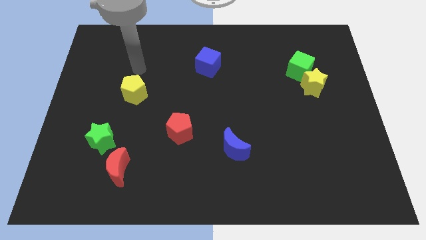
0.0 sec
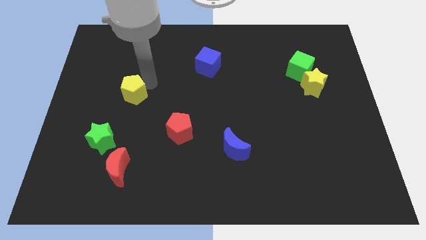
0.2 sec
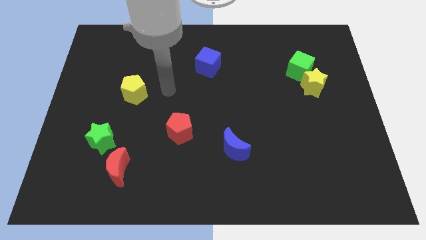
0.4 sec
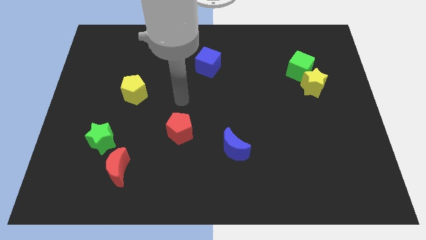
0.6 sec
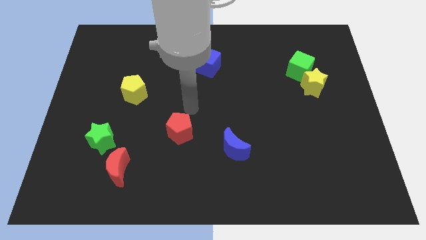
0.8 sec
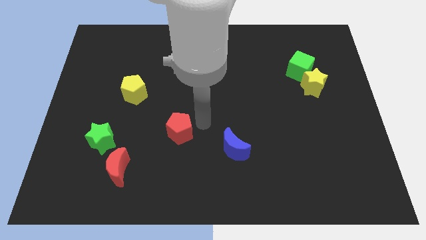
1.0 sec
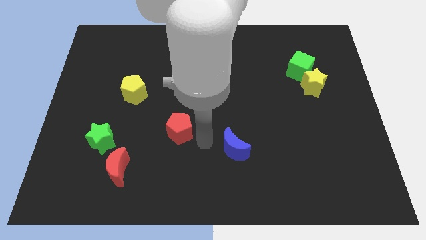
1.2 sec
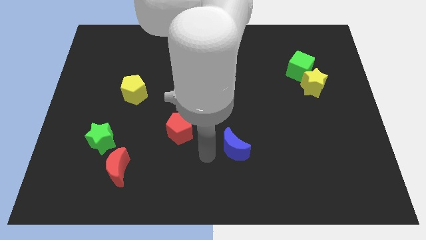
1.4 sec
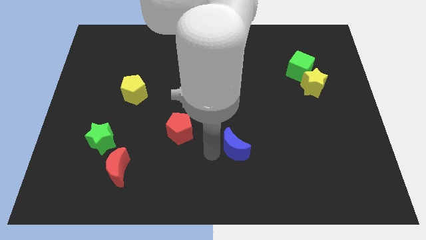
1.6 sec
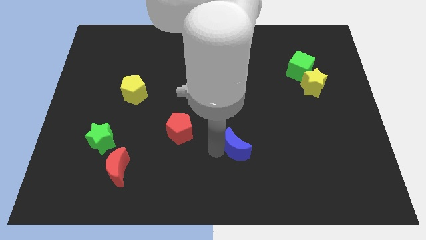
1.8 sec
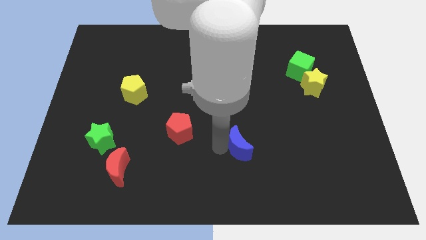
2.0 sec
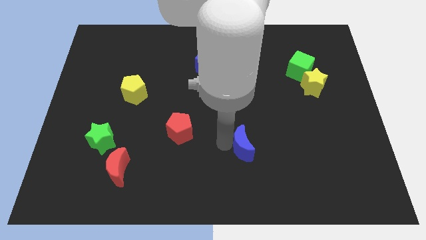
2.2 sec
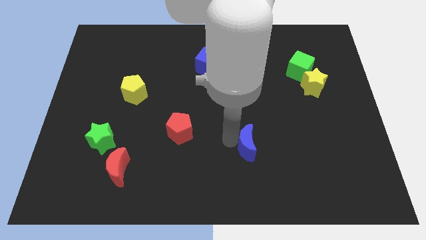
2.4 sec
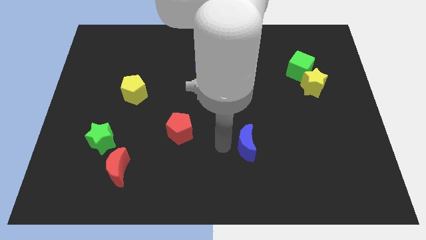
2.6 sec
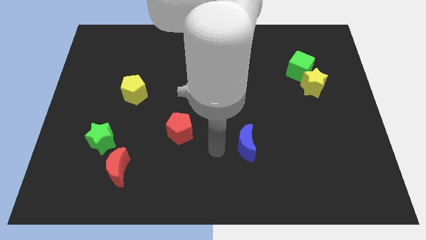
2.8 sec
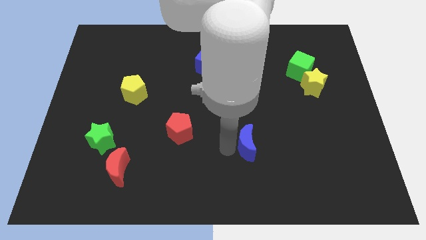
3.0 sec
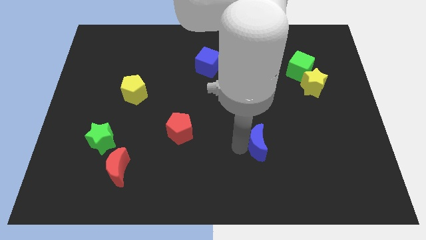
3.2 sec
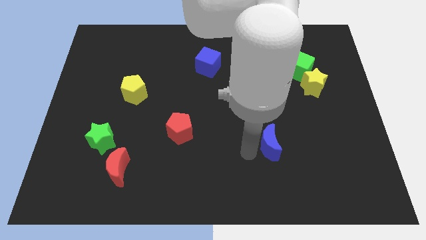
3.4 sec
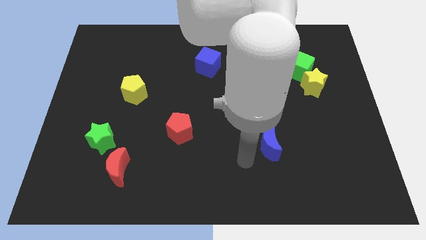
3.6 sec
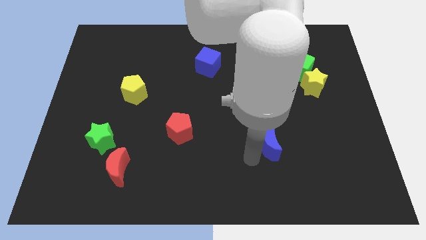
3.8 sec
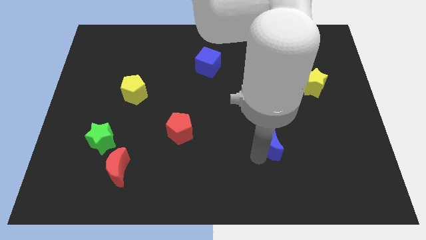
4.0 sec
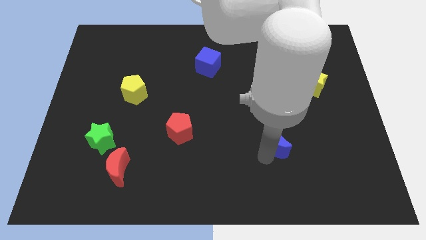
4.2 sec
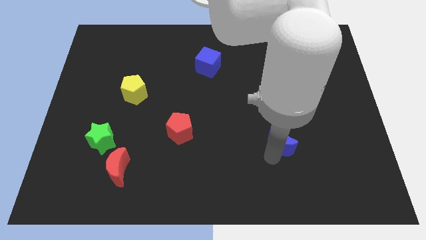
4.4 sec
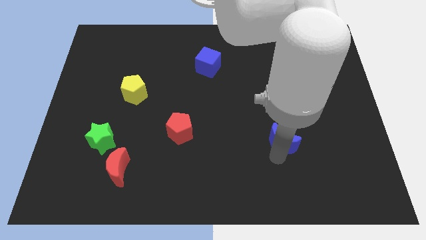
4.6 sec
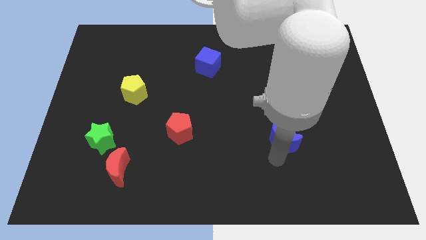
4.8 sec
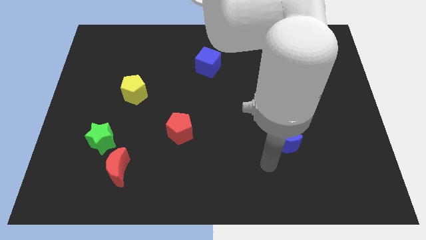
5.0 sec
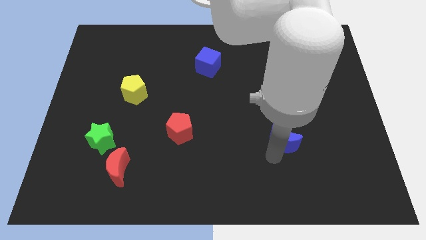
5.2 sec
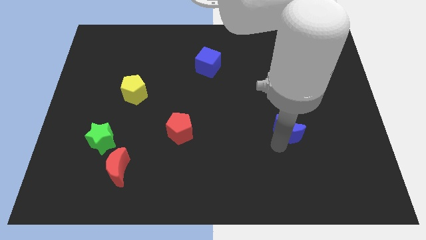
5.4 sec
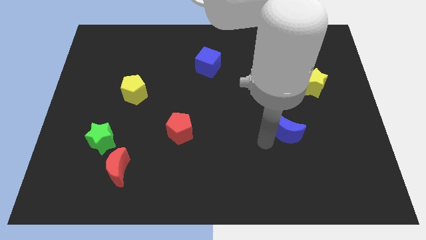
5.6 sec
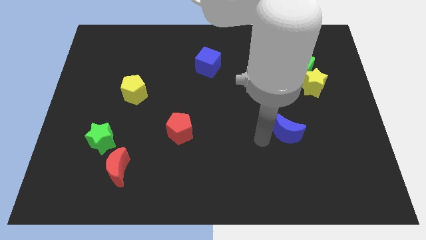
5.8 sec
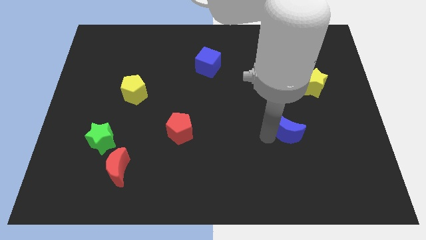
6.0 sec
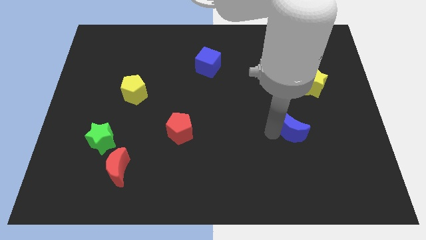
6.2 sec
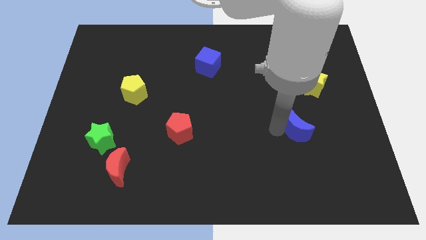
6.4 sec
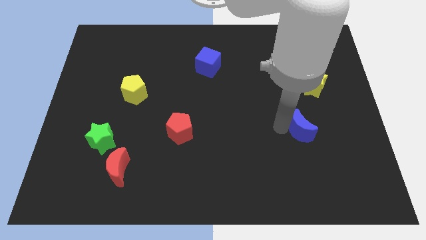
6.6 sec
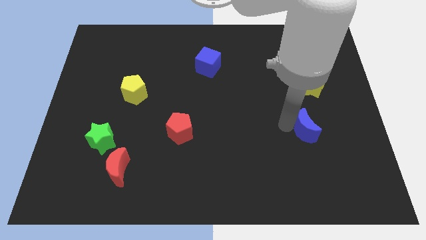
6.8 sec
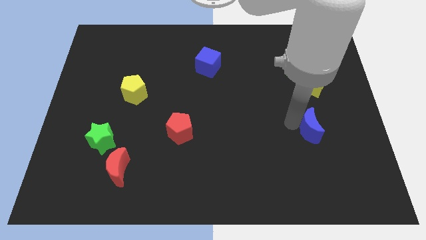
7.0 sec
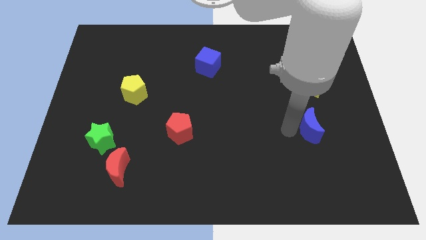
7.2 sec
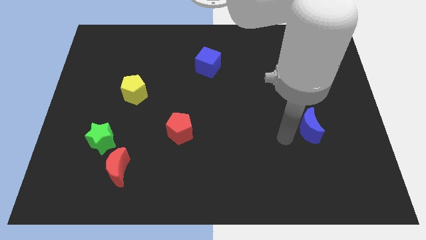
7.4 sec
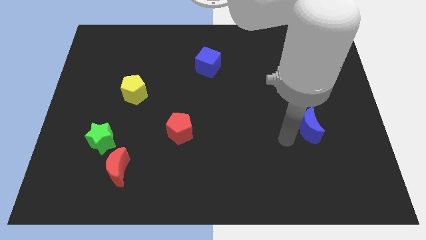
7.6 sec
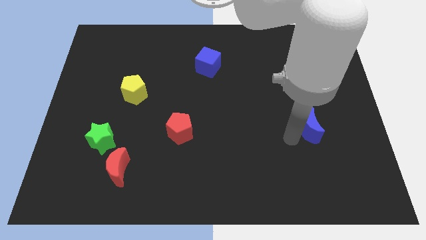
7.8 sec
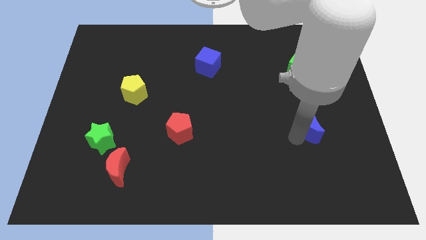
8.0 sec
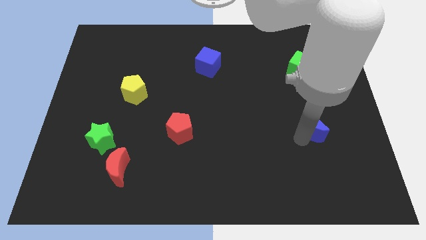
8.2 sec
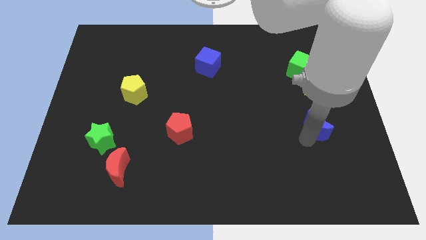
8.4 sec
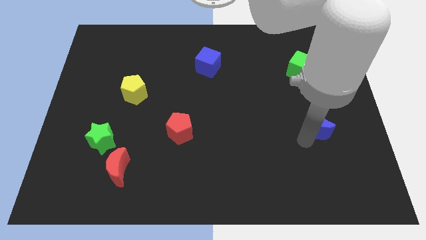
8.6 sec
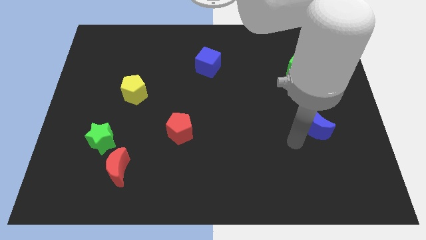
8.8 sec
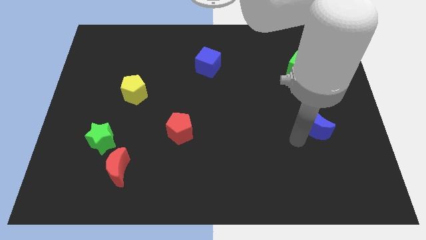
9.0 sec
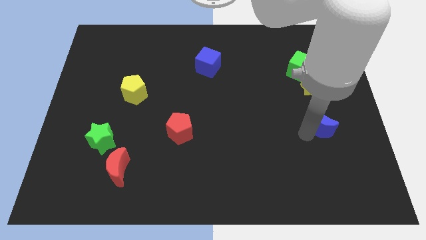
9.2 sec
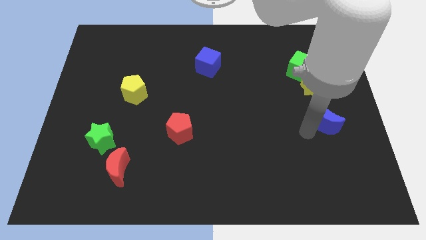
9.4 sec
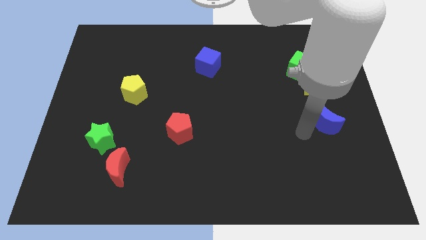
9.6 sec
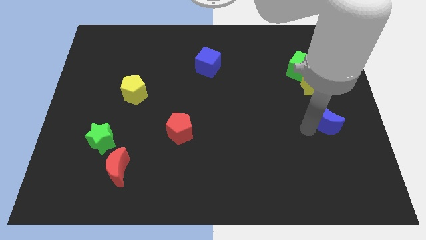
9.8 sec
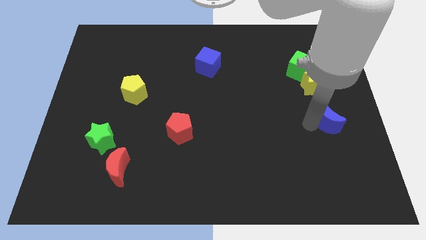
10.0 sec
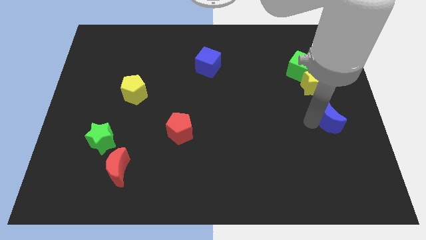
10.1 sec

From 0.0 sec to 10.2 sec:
move the blue moon to the center right
